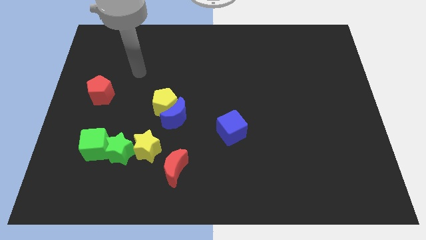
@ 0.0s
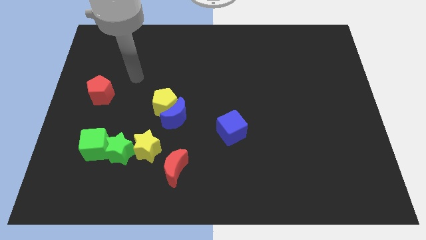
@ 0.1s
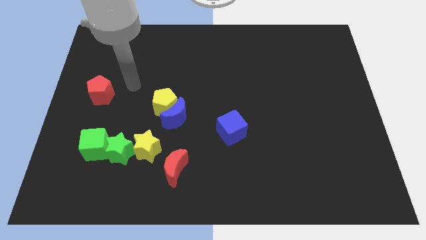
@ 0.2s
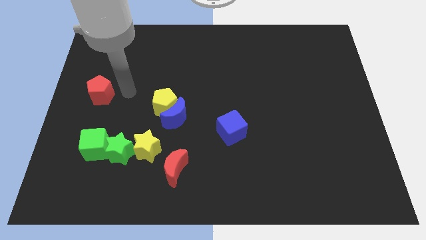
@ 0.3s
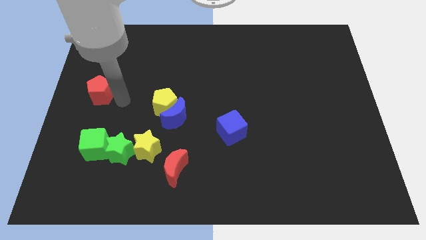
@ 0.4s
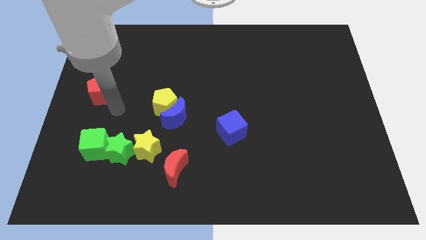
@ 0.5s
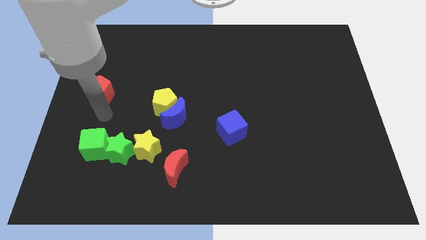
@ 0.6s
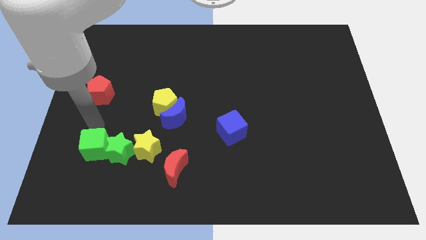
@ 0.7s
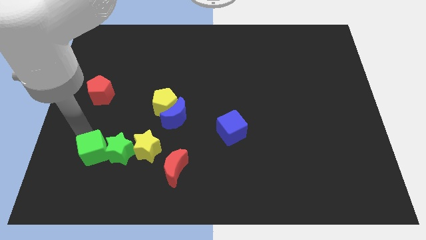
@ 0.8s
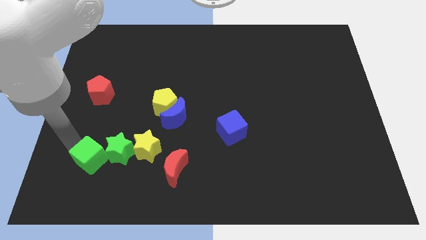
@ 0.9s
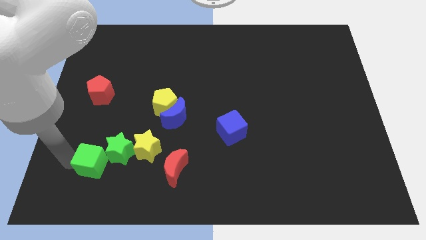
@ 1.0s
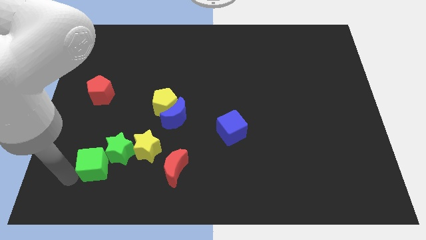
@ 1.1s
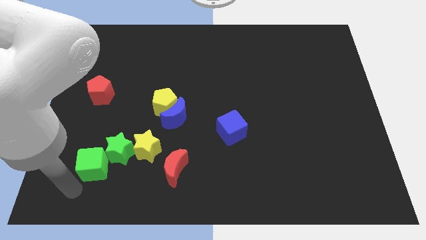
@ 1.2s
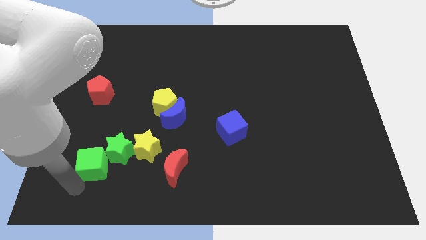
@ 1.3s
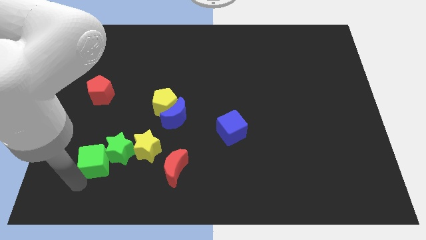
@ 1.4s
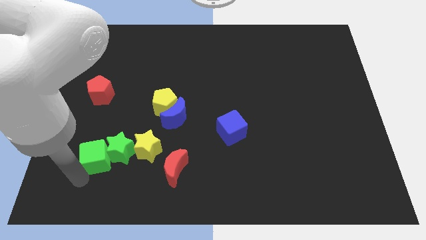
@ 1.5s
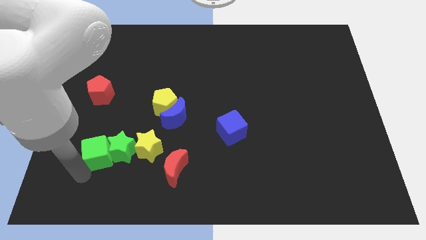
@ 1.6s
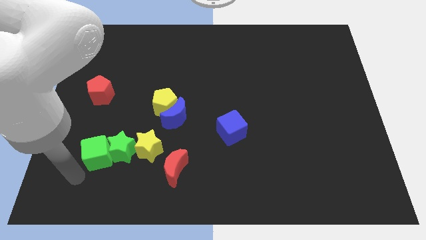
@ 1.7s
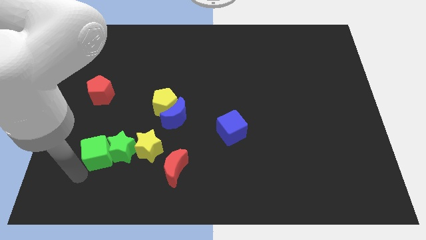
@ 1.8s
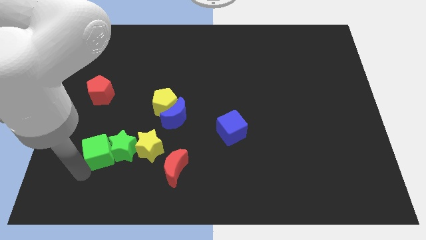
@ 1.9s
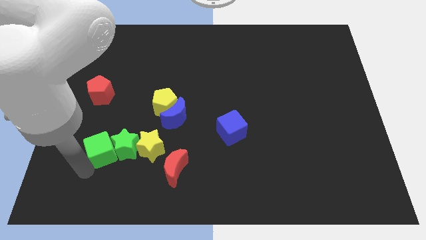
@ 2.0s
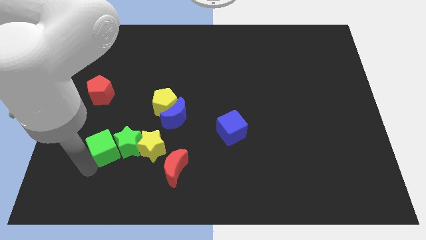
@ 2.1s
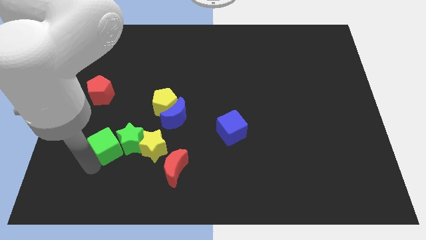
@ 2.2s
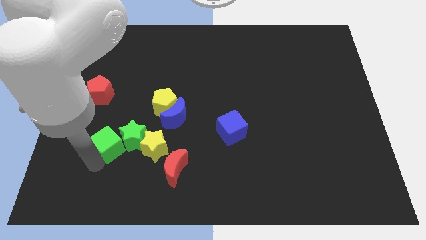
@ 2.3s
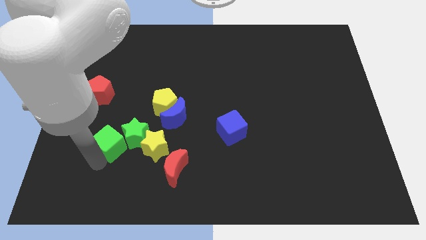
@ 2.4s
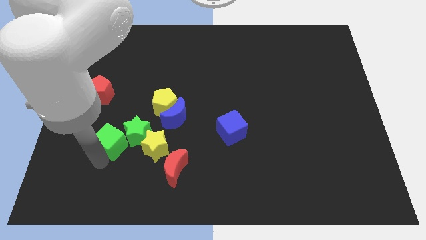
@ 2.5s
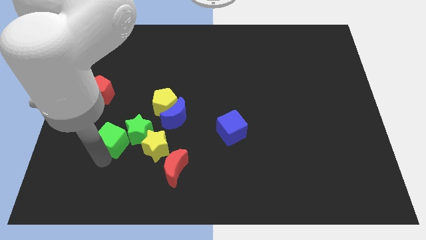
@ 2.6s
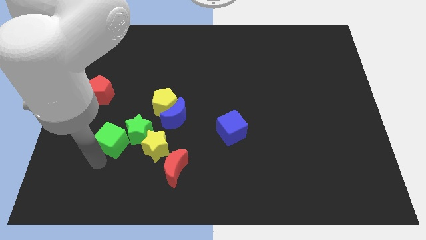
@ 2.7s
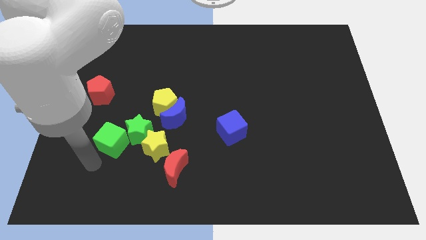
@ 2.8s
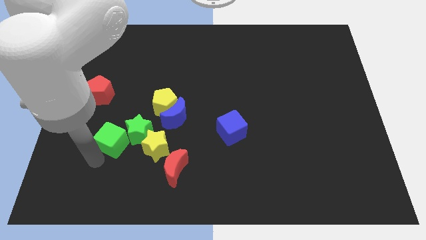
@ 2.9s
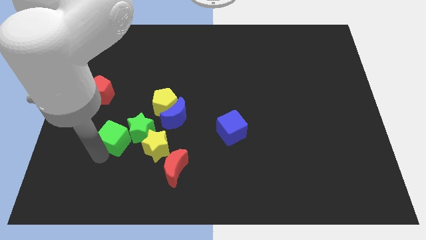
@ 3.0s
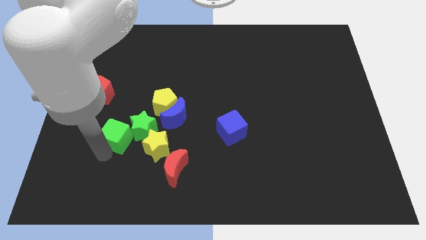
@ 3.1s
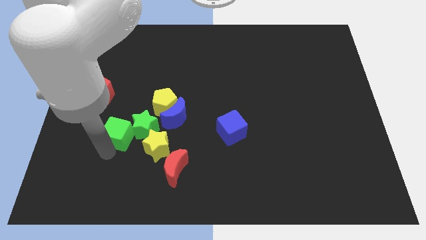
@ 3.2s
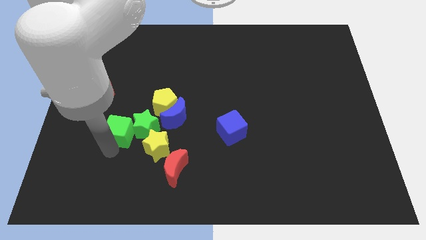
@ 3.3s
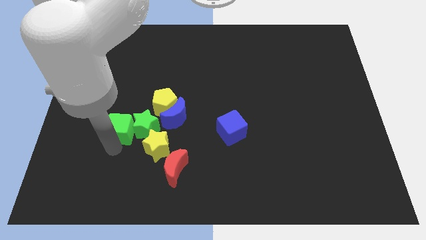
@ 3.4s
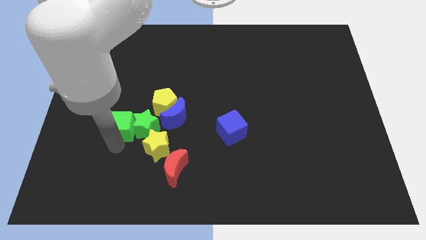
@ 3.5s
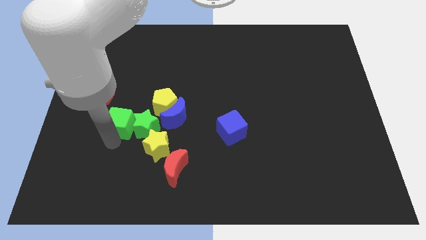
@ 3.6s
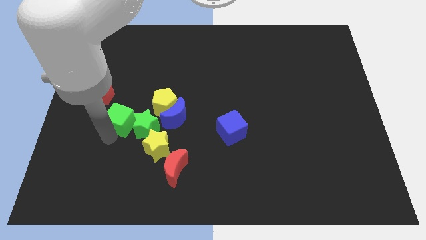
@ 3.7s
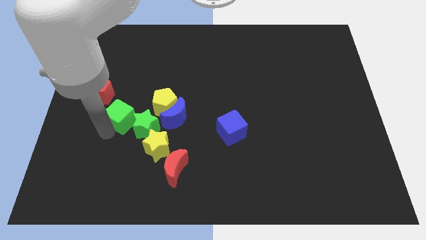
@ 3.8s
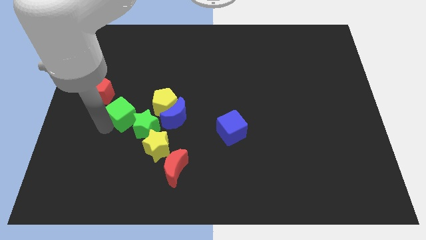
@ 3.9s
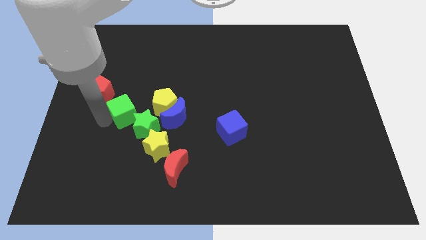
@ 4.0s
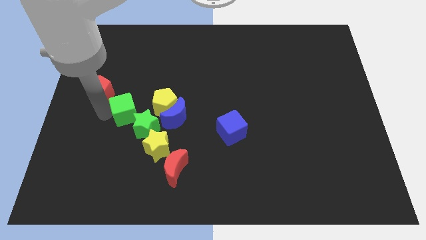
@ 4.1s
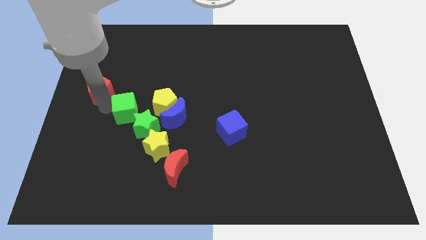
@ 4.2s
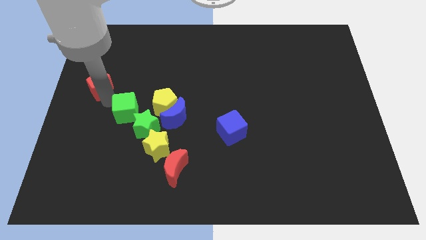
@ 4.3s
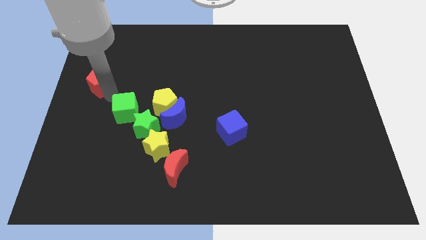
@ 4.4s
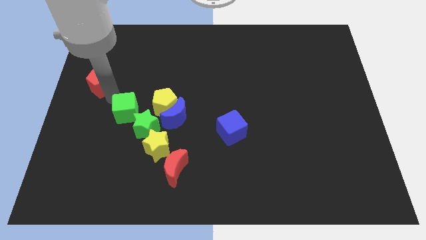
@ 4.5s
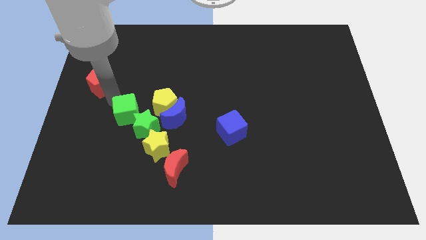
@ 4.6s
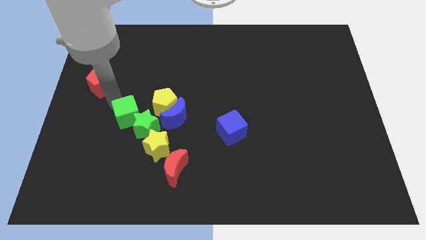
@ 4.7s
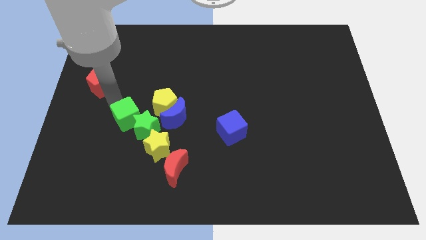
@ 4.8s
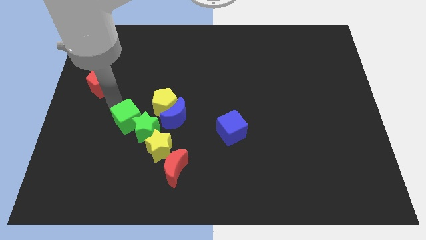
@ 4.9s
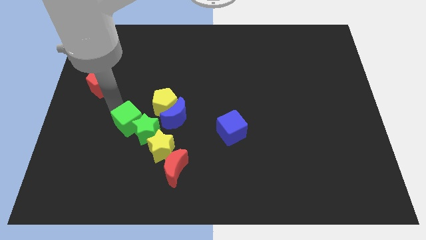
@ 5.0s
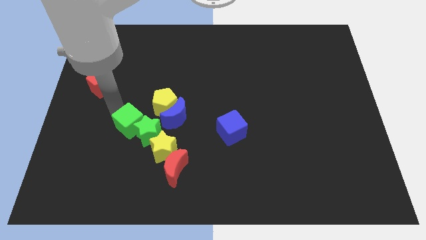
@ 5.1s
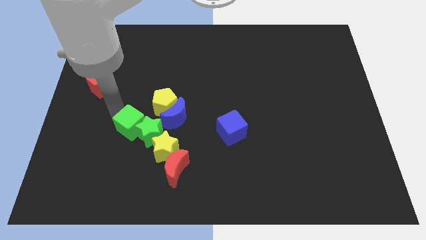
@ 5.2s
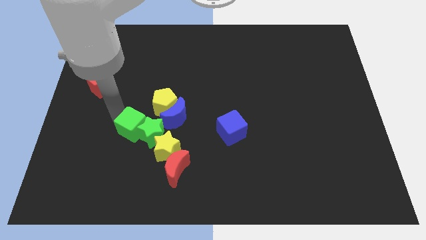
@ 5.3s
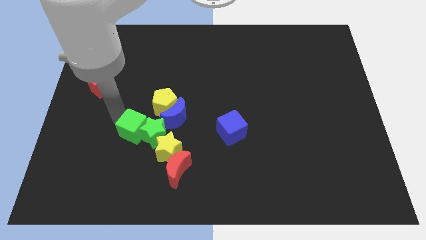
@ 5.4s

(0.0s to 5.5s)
slide the green cube a little bit right

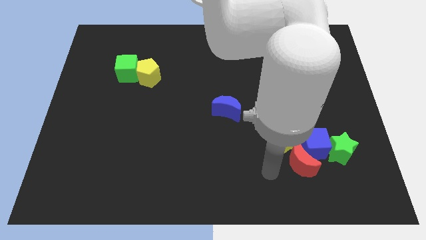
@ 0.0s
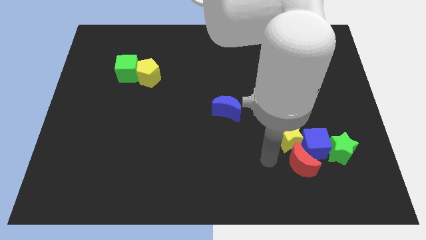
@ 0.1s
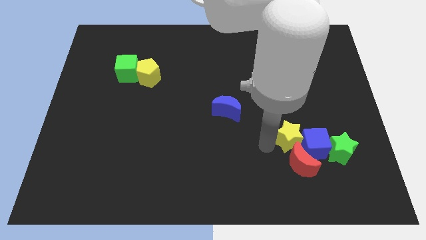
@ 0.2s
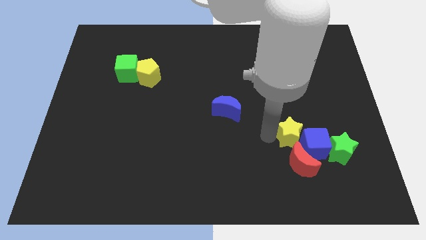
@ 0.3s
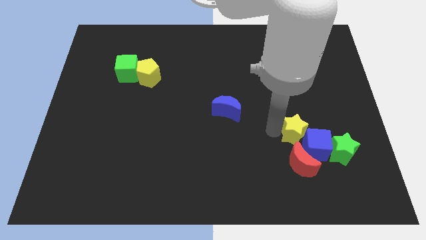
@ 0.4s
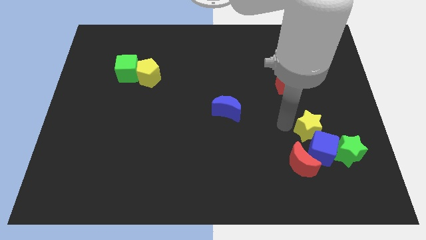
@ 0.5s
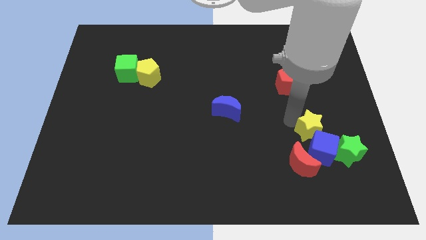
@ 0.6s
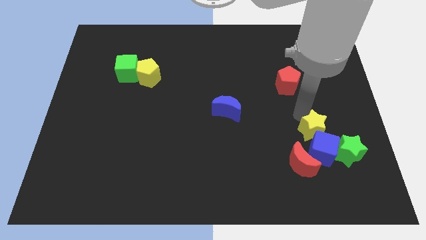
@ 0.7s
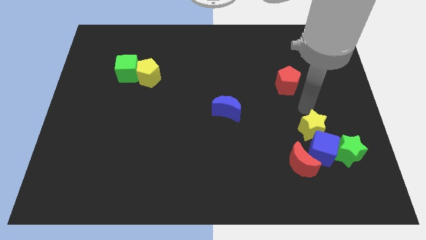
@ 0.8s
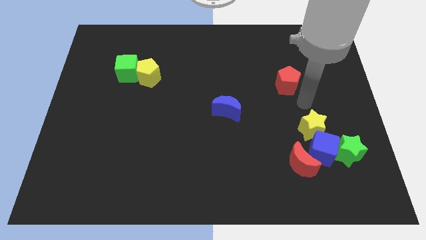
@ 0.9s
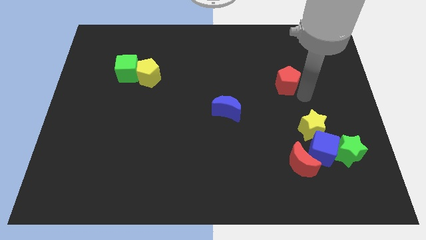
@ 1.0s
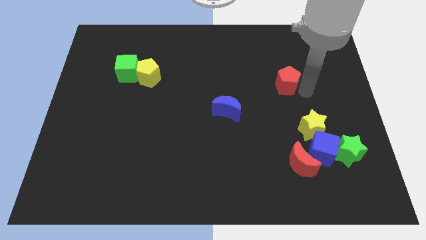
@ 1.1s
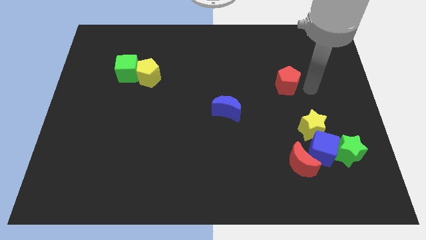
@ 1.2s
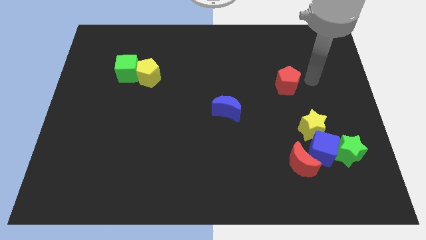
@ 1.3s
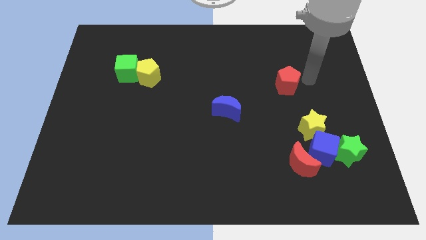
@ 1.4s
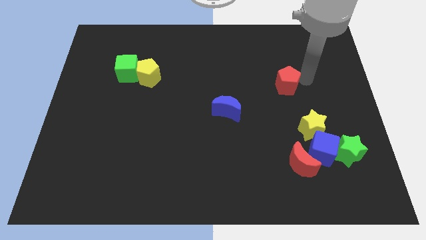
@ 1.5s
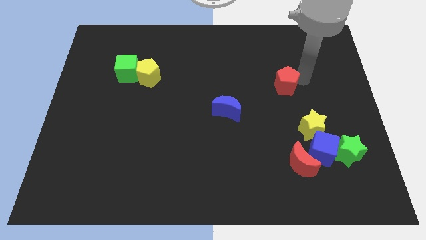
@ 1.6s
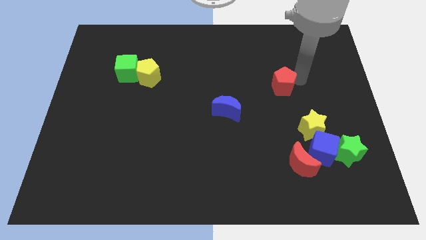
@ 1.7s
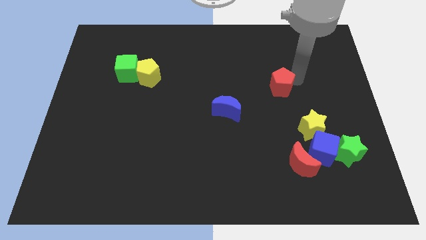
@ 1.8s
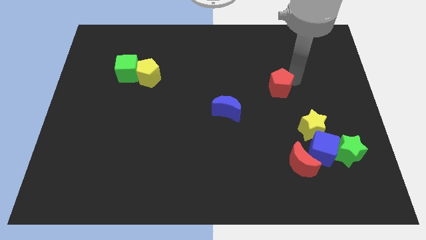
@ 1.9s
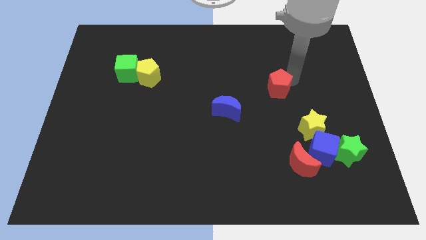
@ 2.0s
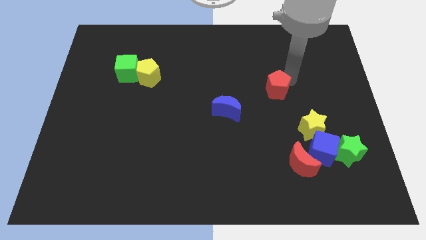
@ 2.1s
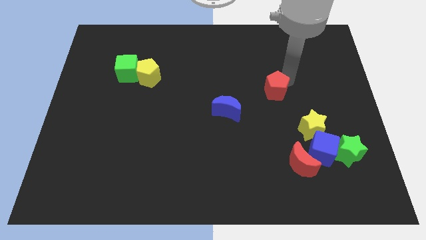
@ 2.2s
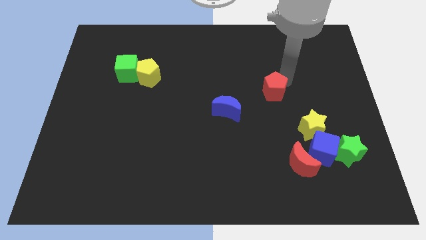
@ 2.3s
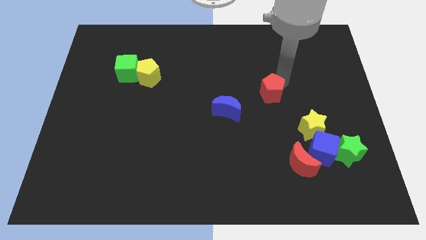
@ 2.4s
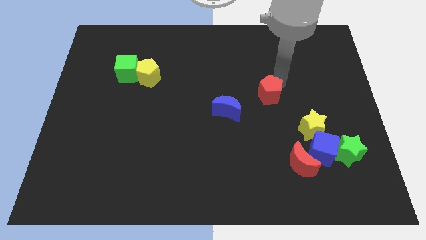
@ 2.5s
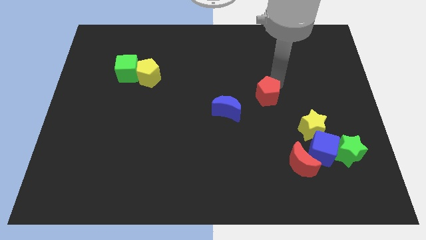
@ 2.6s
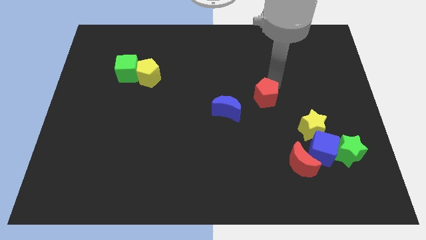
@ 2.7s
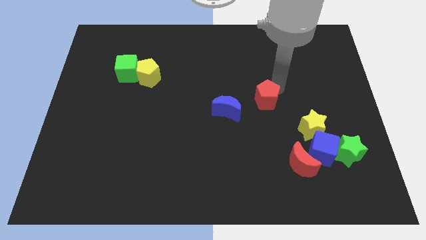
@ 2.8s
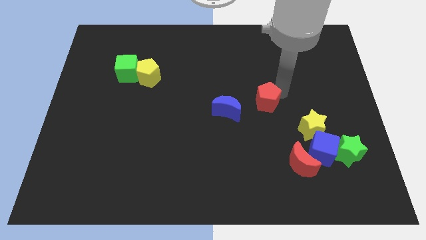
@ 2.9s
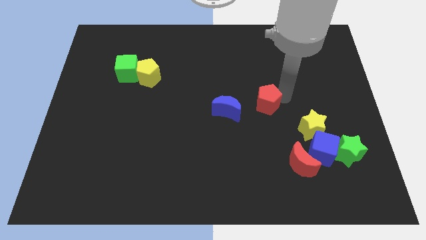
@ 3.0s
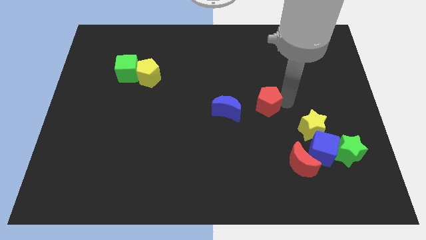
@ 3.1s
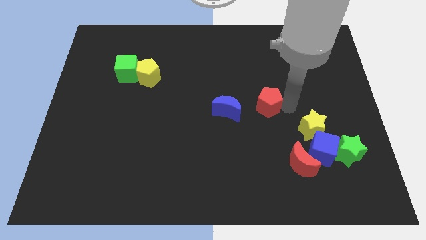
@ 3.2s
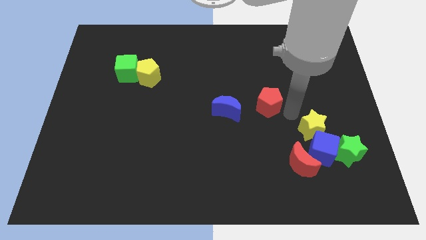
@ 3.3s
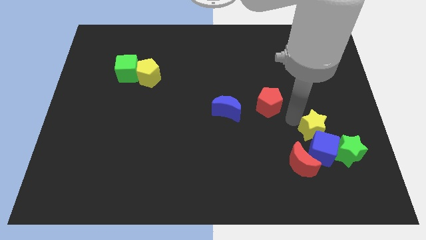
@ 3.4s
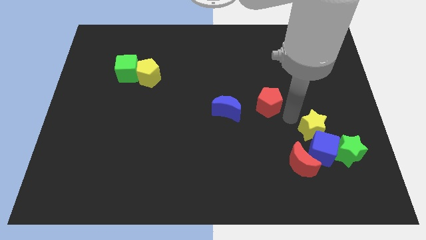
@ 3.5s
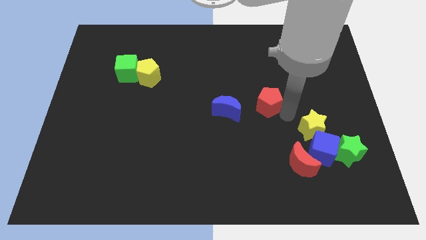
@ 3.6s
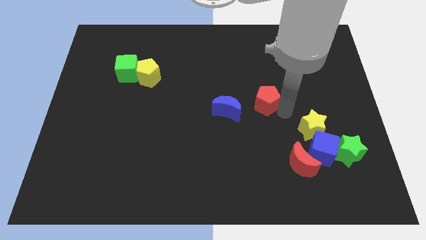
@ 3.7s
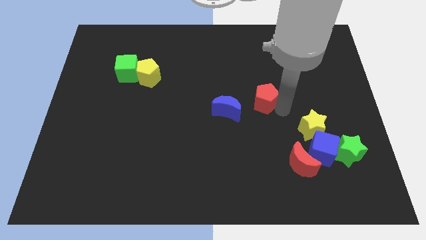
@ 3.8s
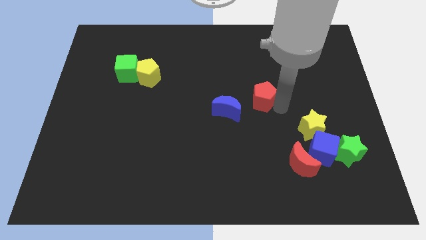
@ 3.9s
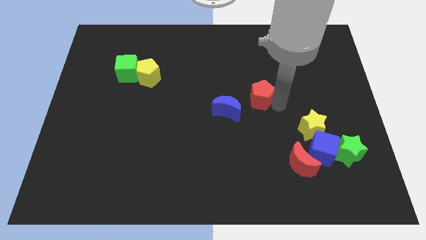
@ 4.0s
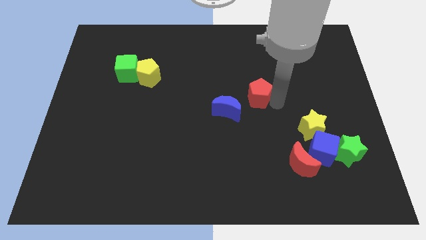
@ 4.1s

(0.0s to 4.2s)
slightly slide the red pentagon left
